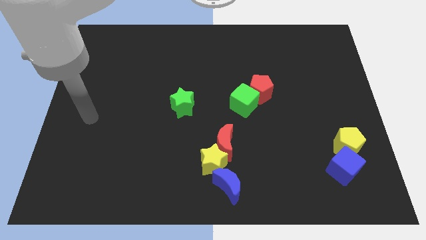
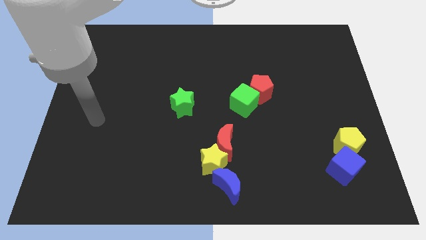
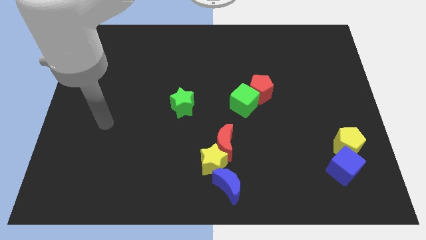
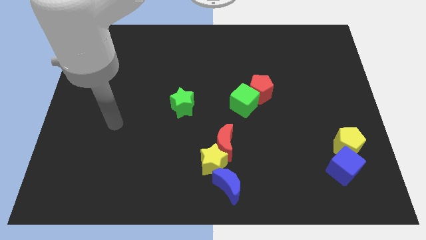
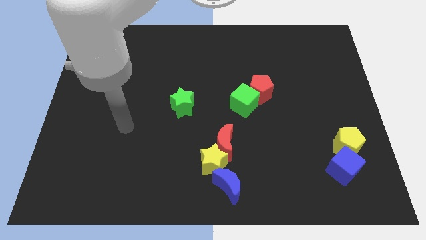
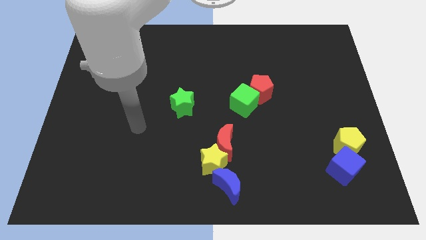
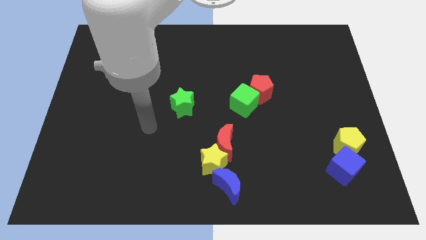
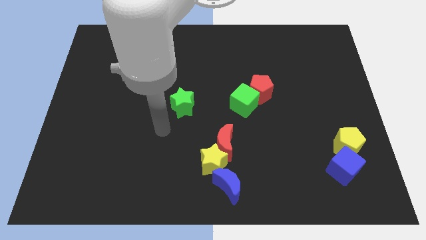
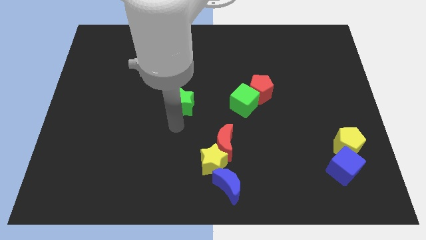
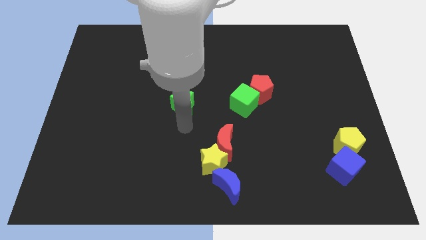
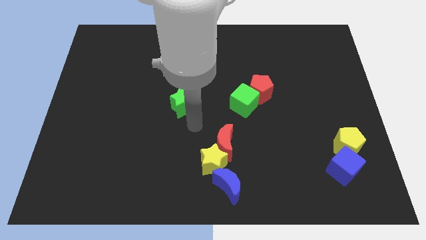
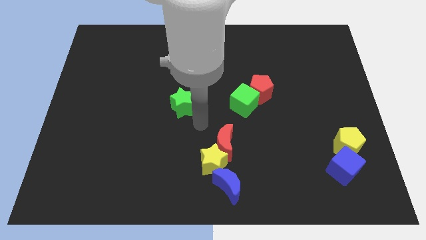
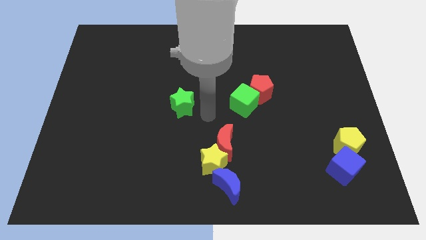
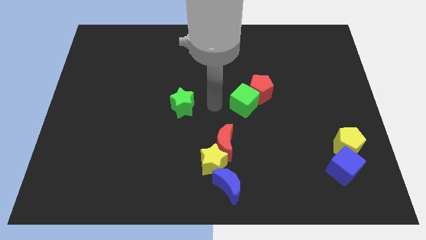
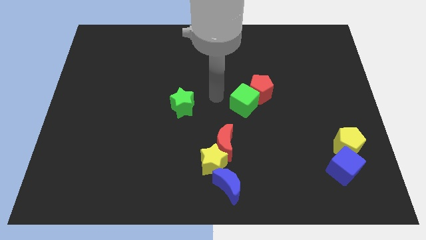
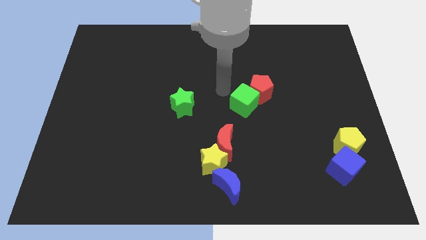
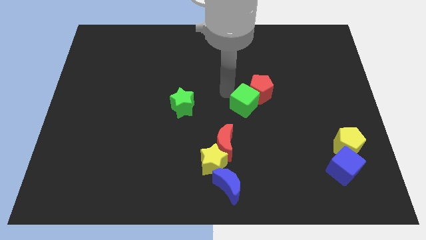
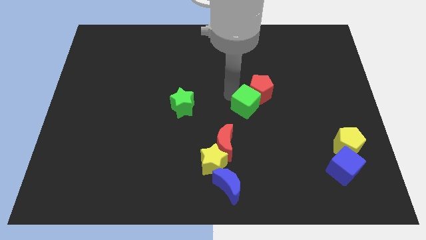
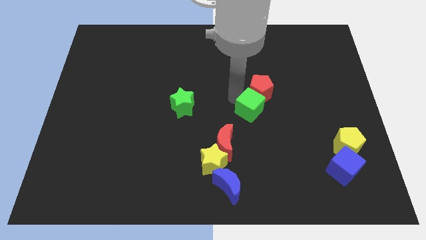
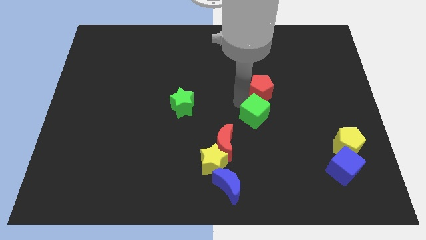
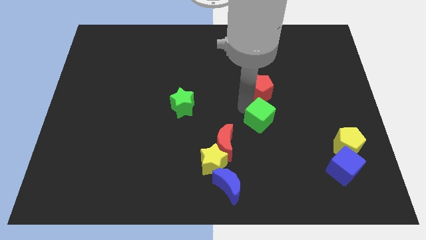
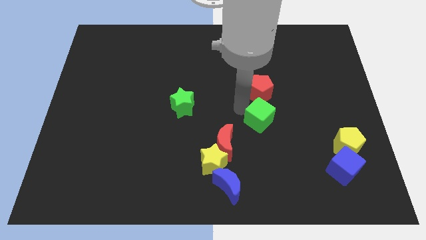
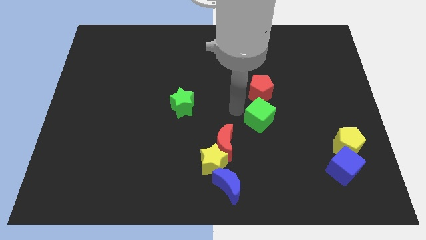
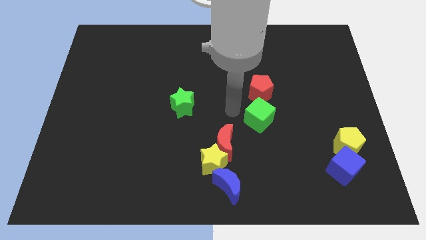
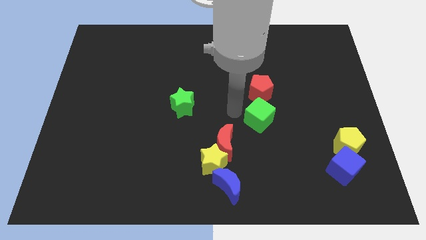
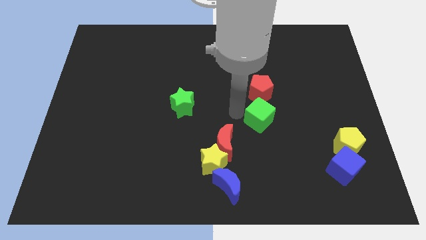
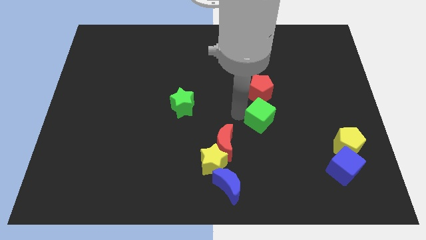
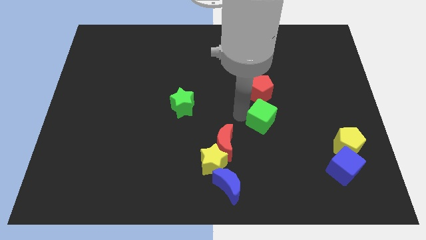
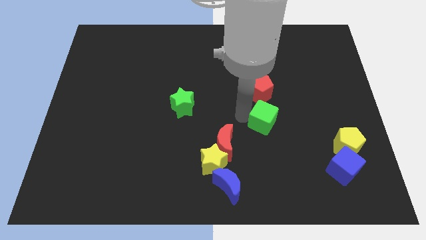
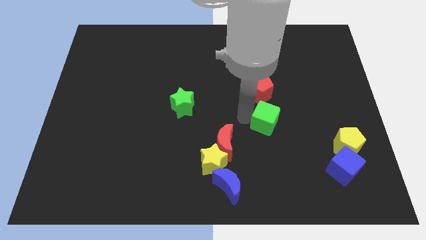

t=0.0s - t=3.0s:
slightly slide the green cube diagonally down and to the right

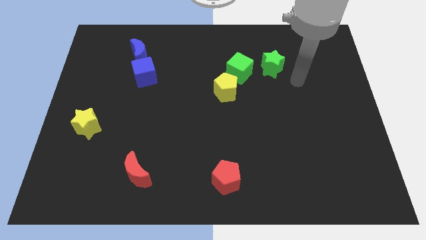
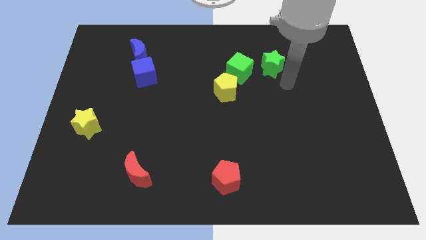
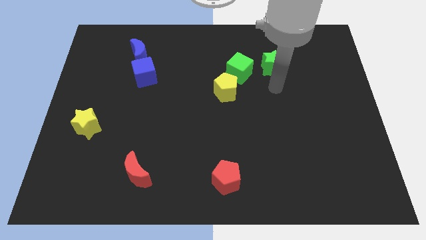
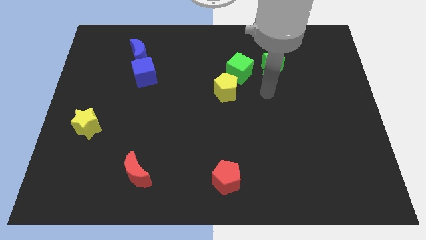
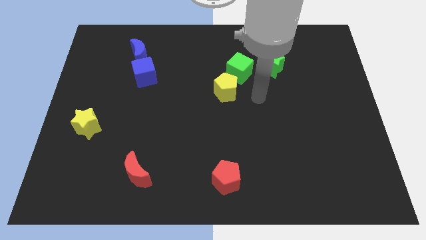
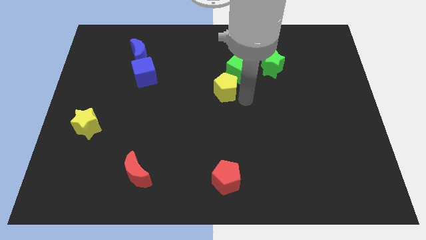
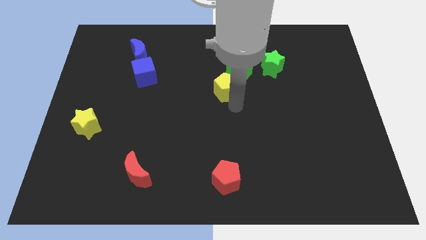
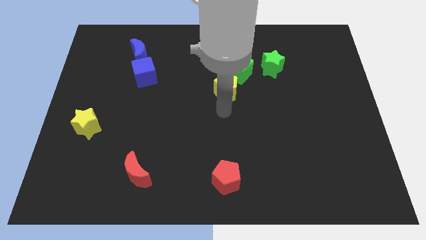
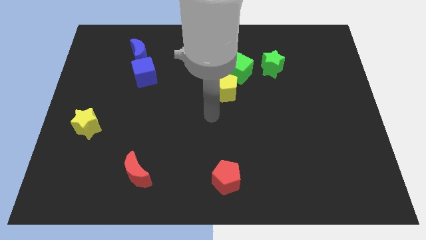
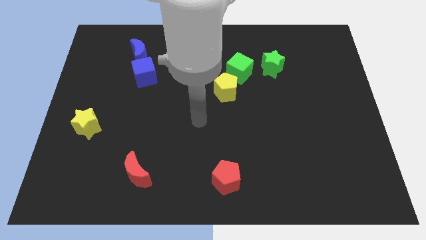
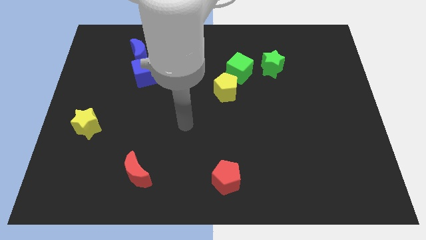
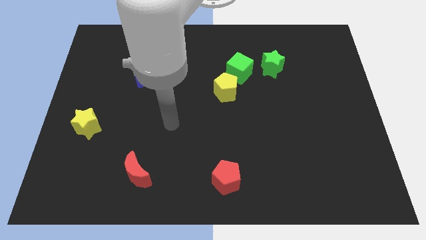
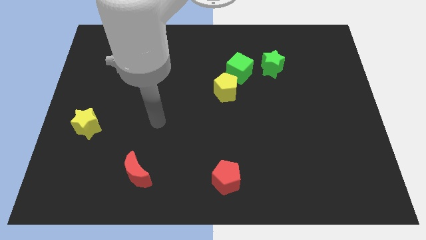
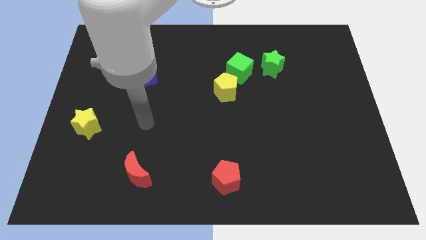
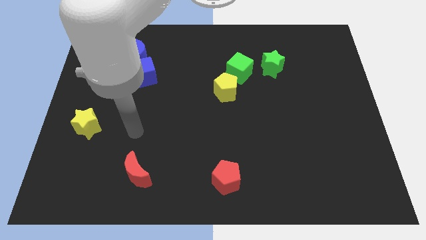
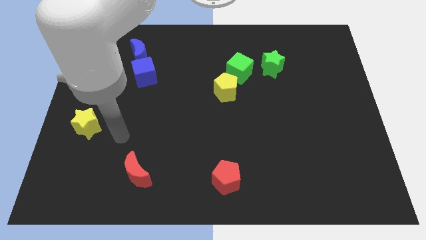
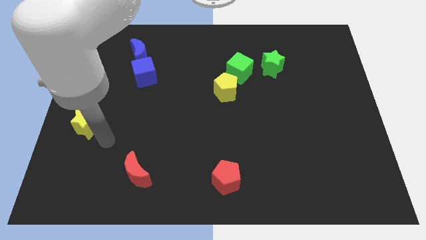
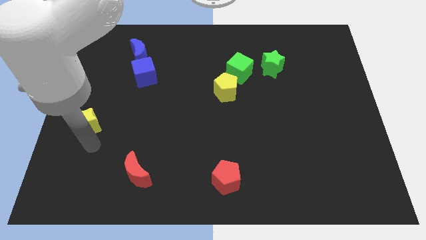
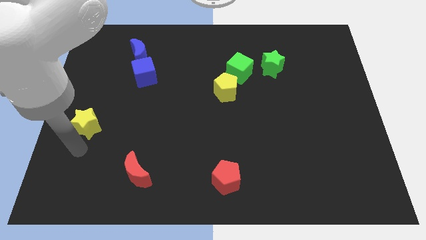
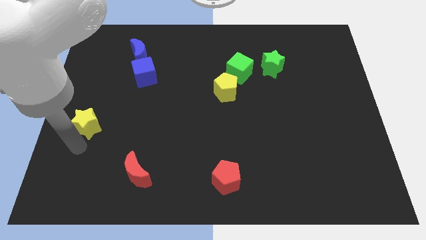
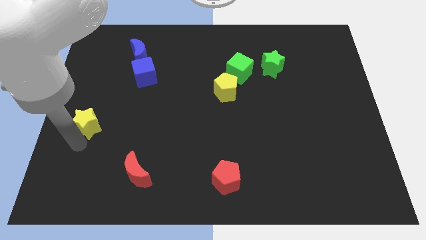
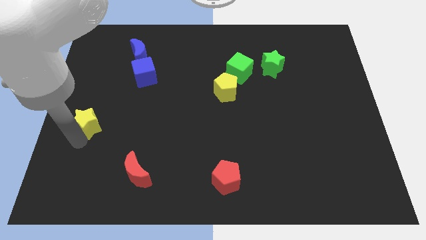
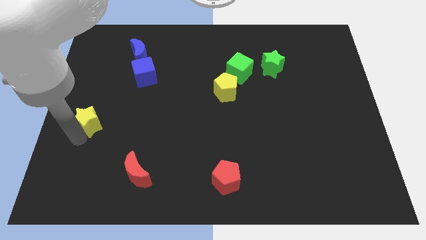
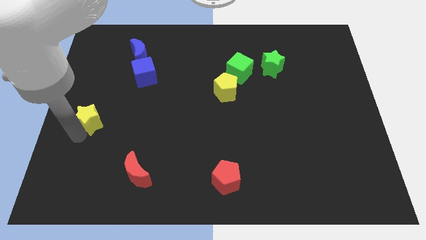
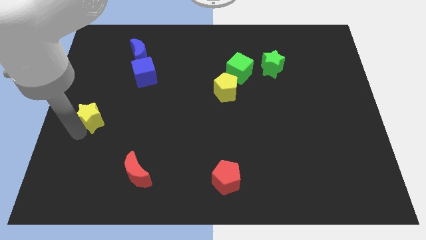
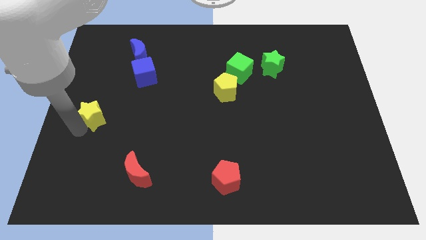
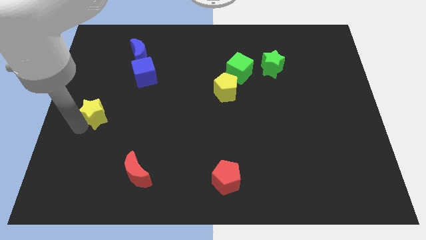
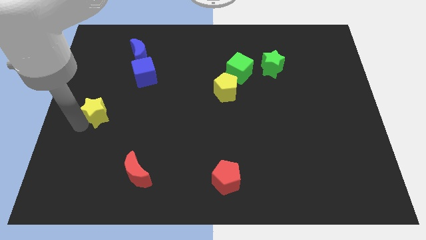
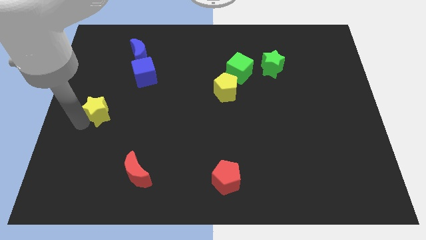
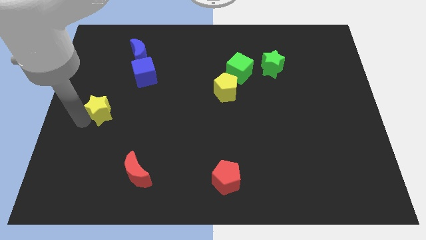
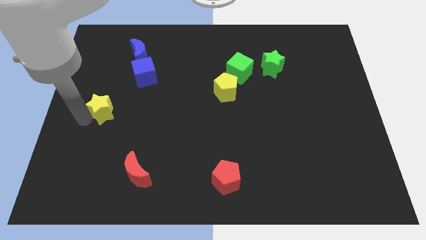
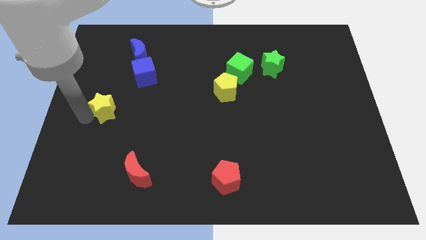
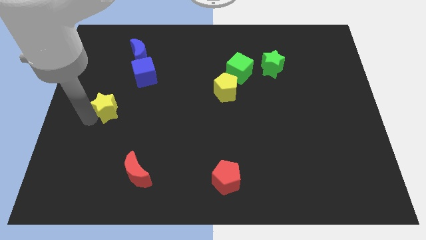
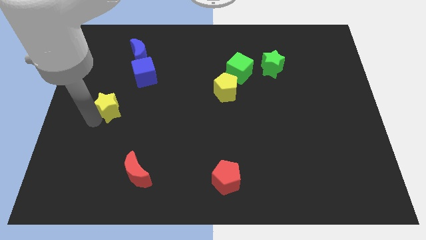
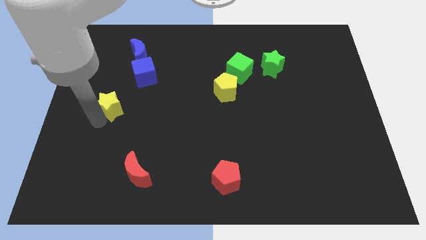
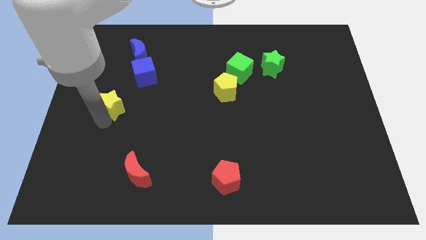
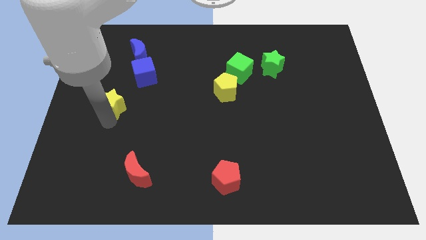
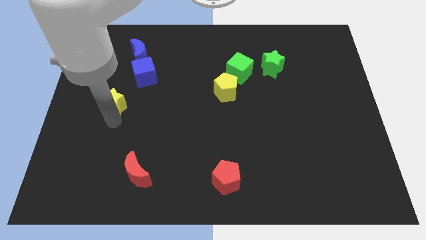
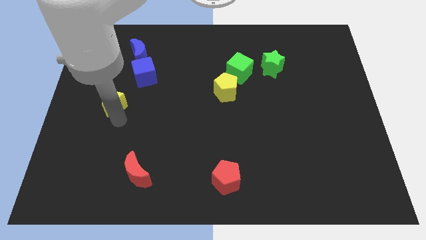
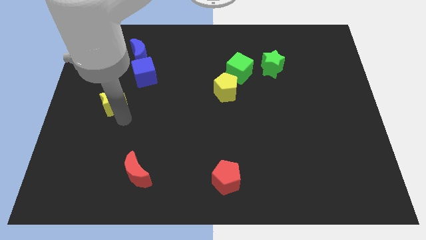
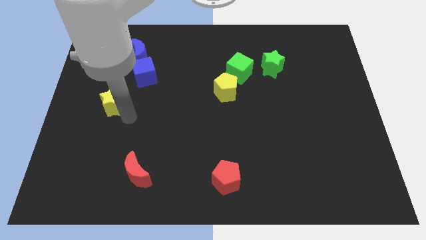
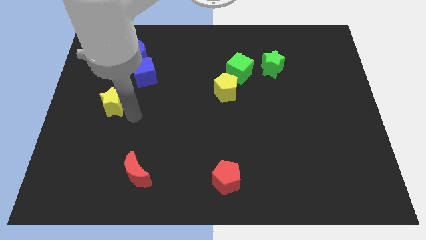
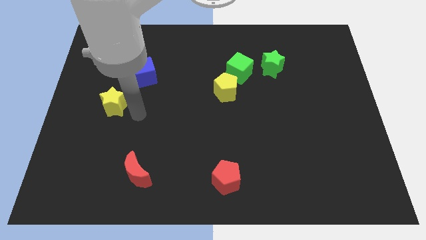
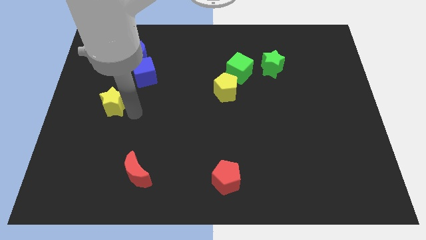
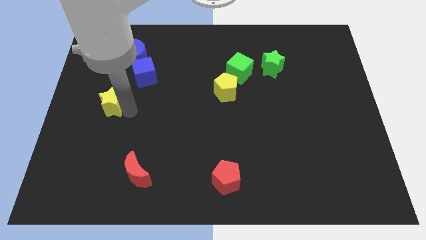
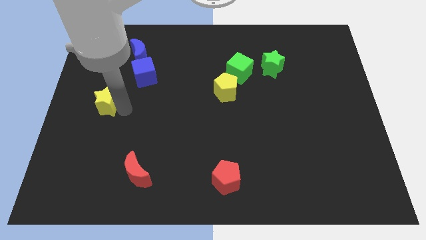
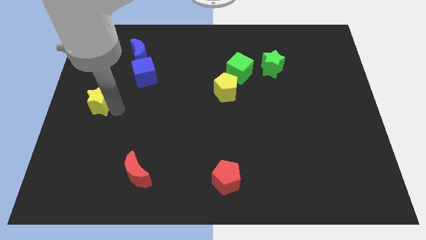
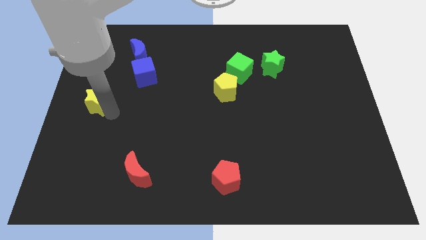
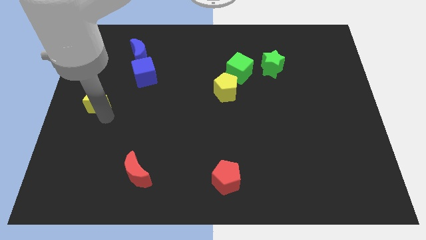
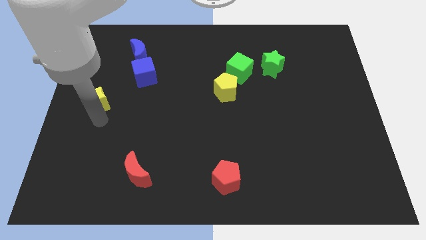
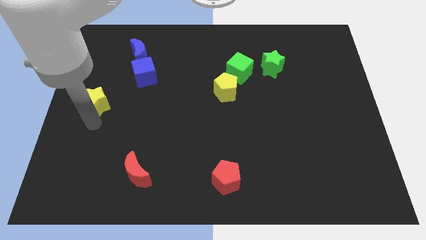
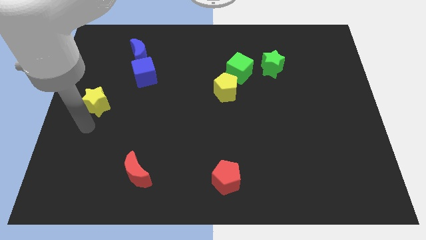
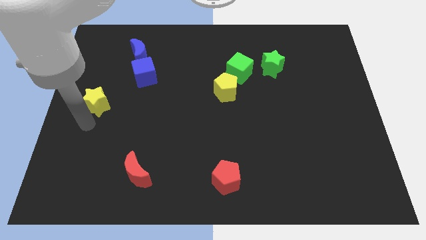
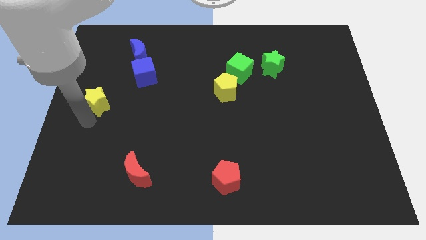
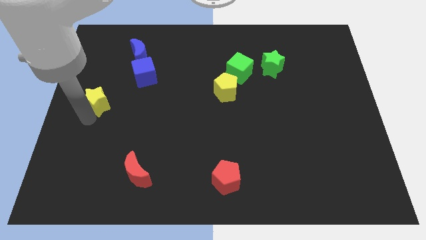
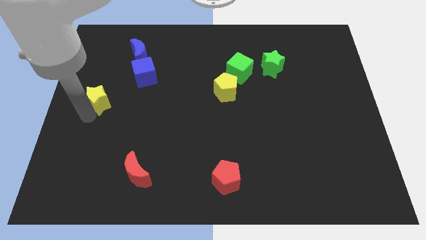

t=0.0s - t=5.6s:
push the yellow star upwards a little

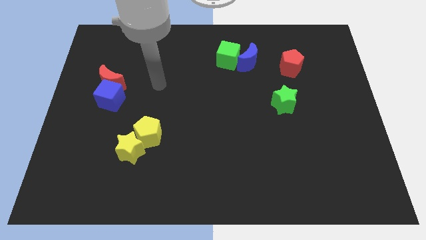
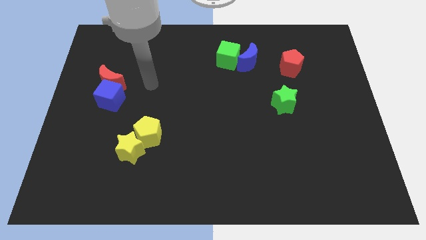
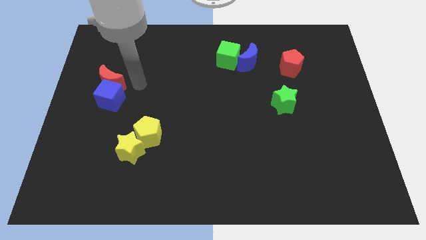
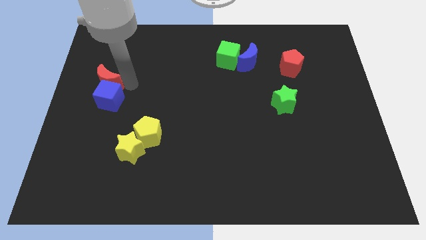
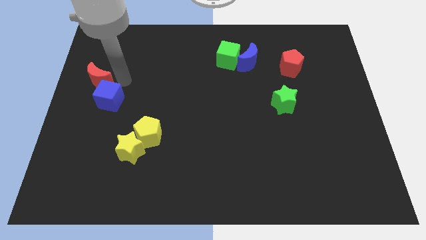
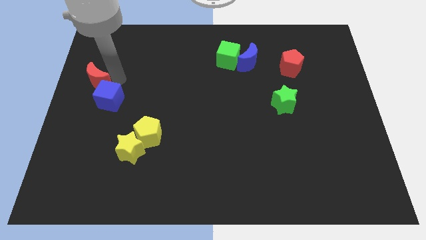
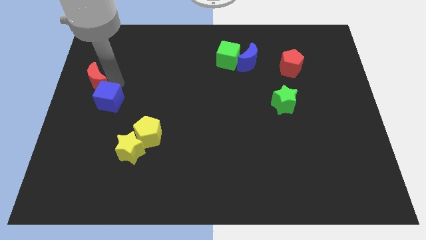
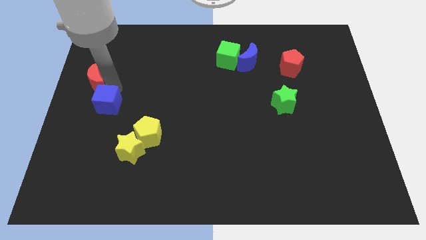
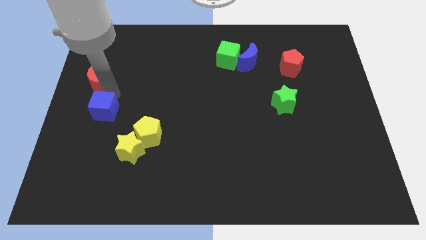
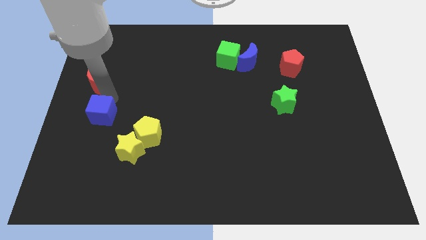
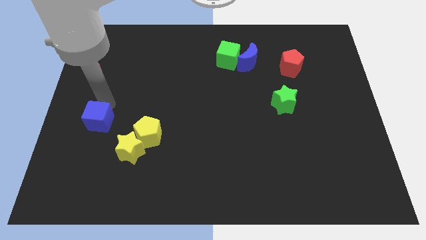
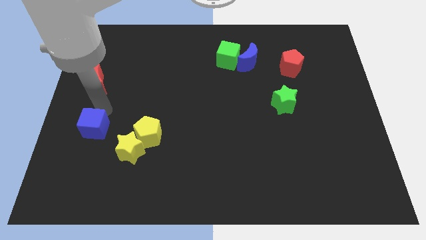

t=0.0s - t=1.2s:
move the blue cube a little downwards
